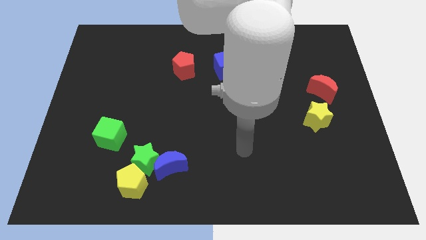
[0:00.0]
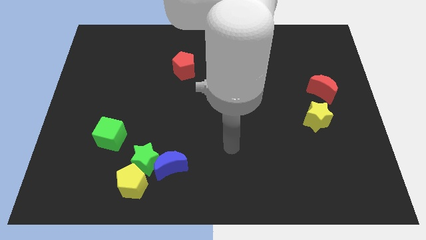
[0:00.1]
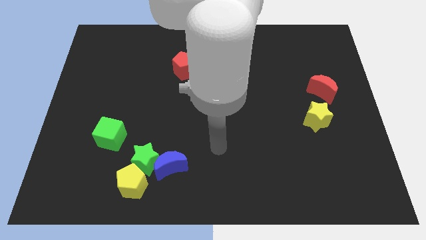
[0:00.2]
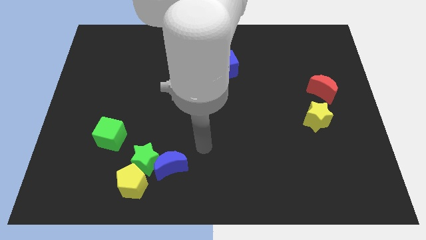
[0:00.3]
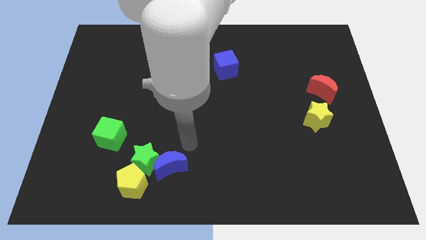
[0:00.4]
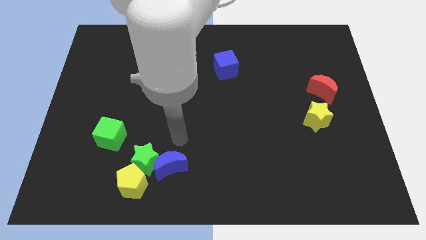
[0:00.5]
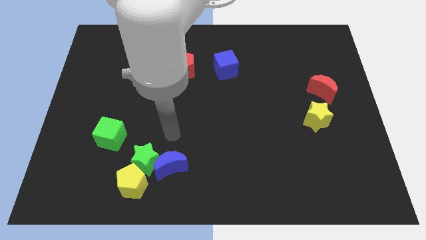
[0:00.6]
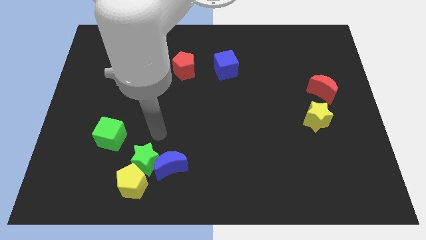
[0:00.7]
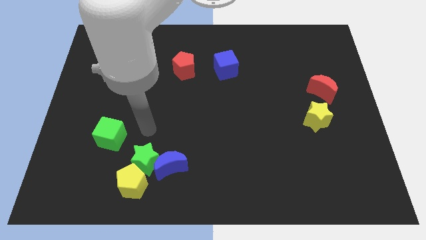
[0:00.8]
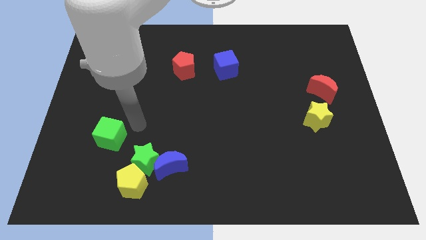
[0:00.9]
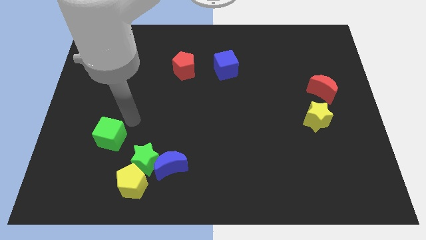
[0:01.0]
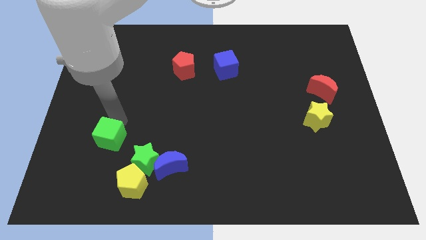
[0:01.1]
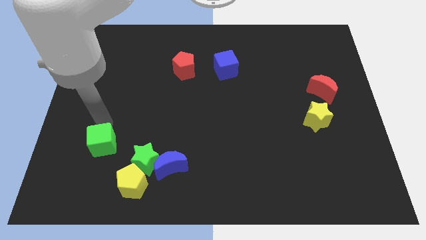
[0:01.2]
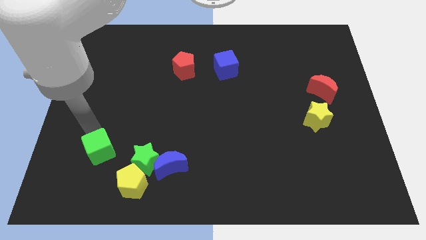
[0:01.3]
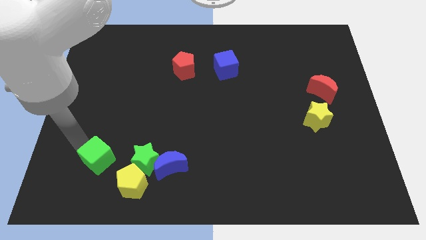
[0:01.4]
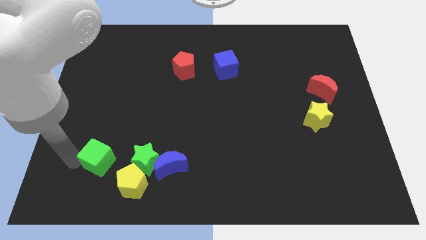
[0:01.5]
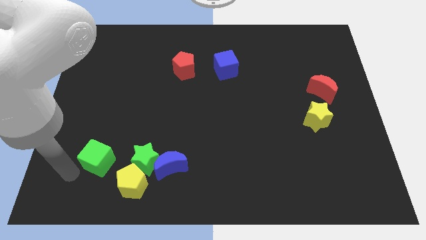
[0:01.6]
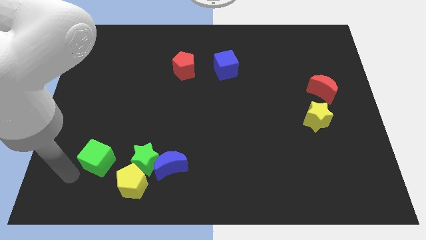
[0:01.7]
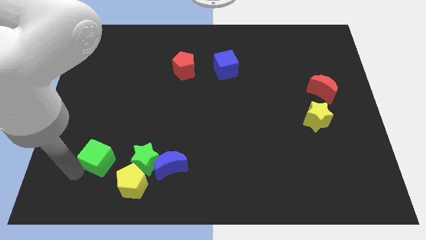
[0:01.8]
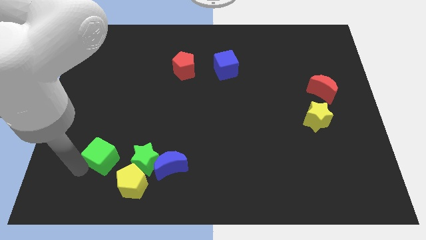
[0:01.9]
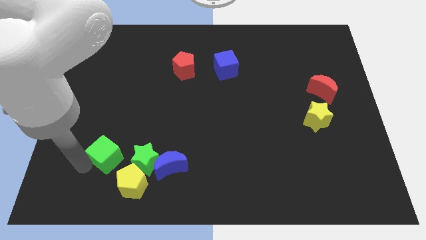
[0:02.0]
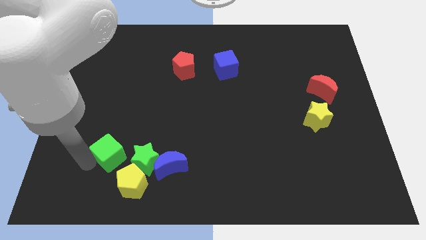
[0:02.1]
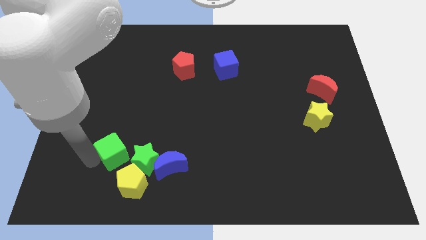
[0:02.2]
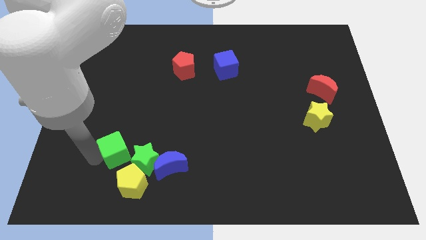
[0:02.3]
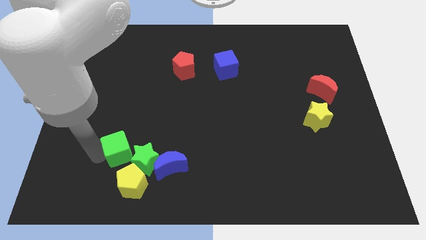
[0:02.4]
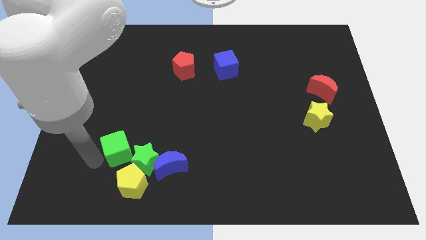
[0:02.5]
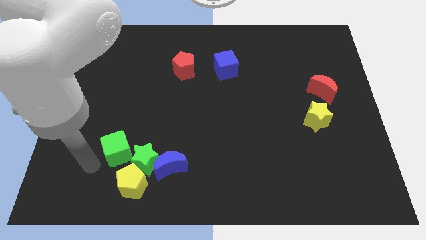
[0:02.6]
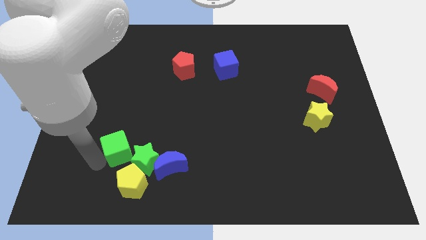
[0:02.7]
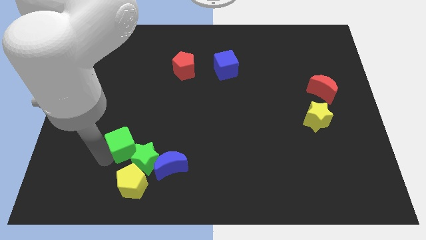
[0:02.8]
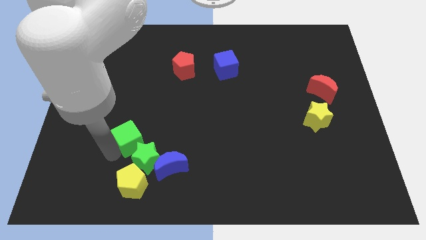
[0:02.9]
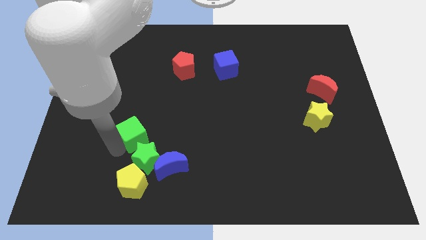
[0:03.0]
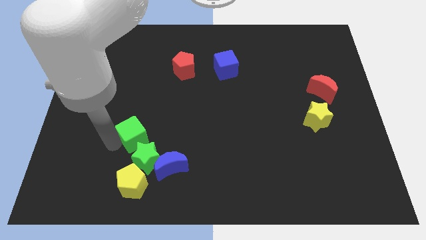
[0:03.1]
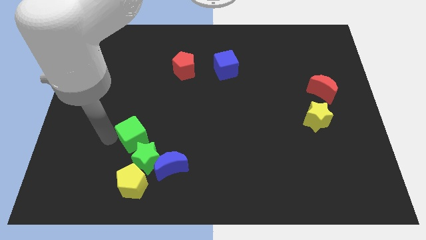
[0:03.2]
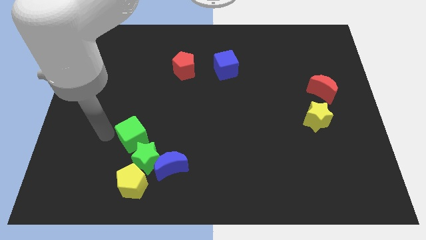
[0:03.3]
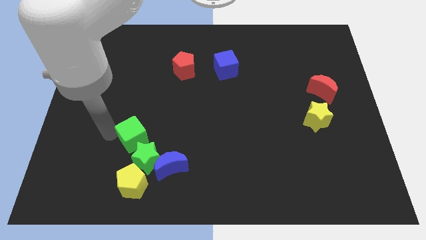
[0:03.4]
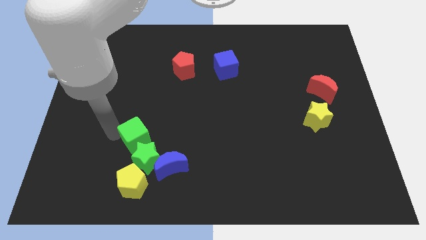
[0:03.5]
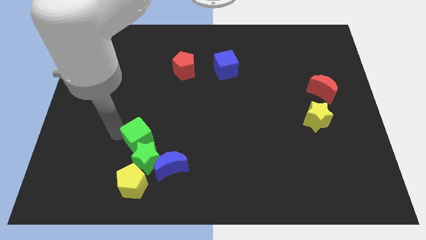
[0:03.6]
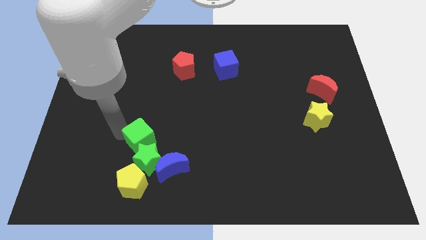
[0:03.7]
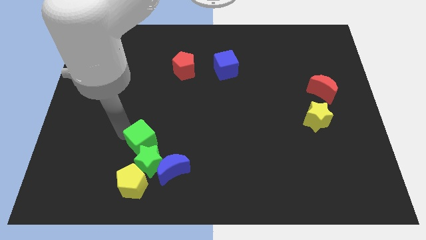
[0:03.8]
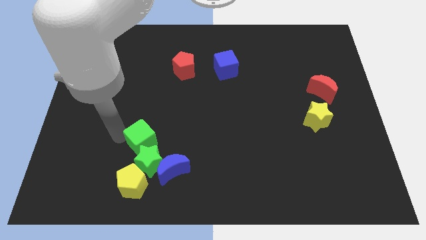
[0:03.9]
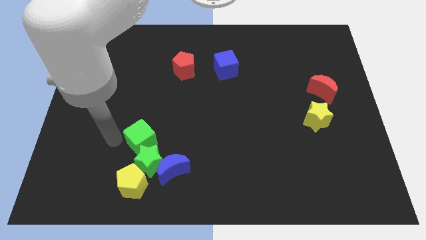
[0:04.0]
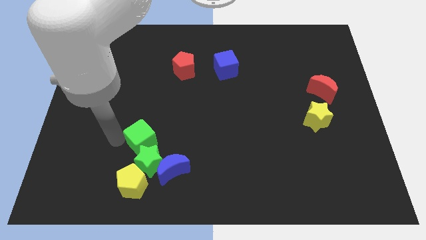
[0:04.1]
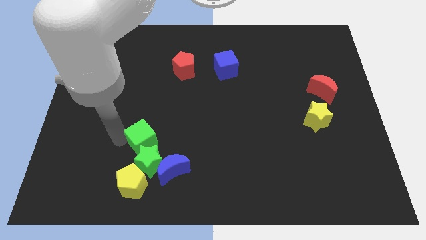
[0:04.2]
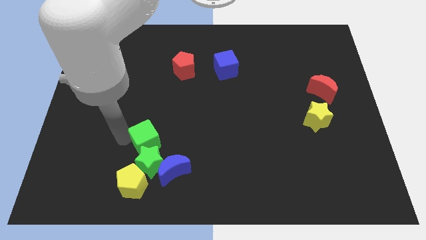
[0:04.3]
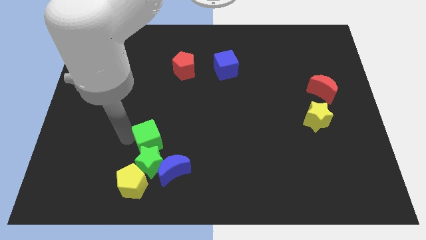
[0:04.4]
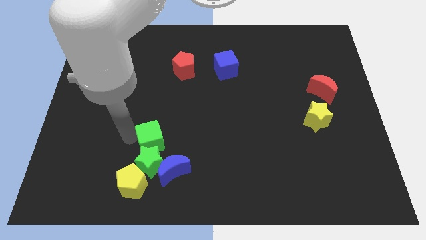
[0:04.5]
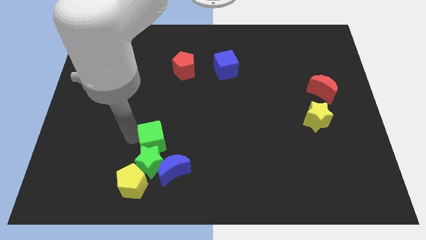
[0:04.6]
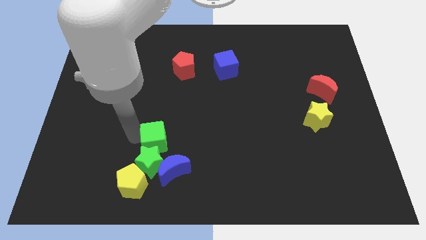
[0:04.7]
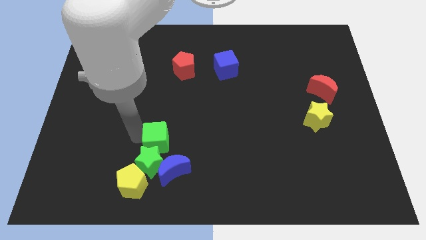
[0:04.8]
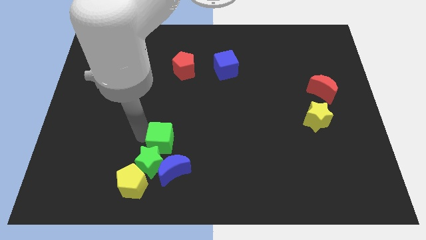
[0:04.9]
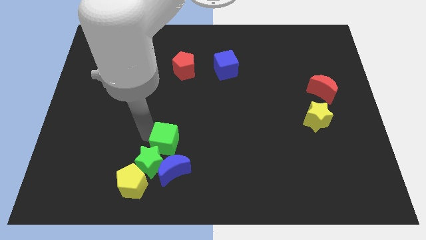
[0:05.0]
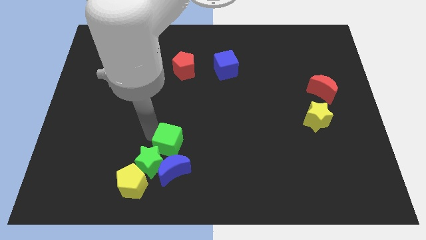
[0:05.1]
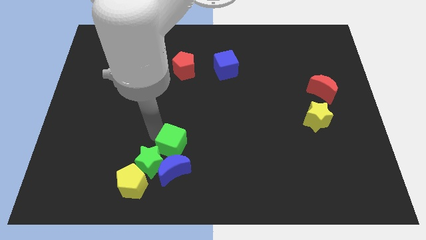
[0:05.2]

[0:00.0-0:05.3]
slide the green cube right of the green star

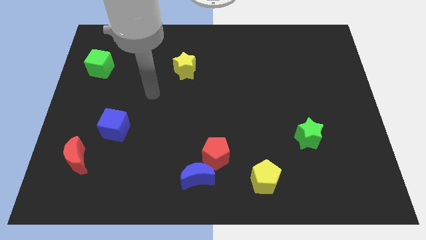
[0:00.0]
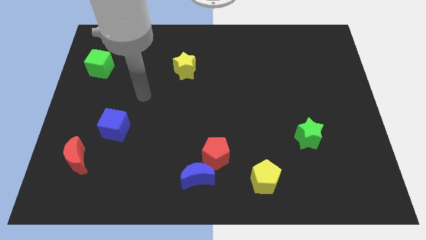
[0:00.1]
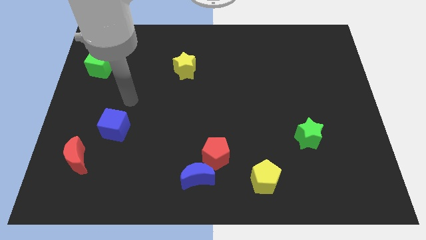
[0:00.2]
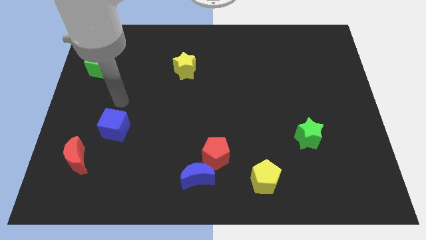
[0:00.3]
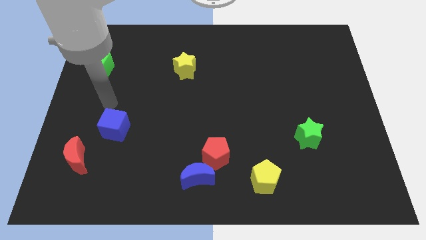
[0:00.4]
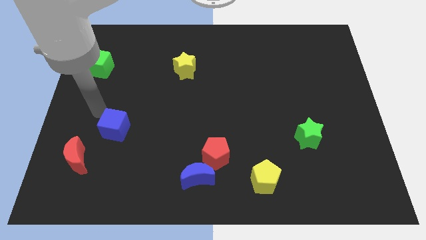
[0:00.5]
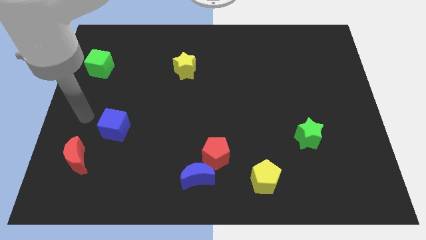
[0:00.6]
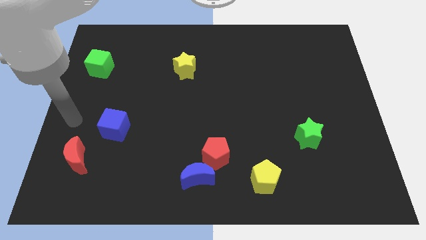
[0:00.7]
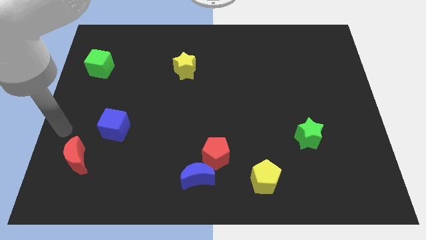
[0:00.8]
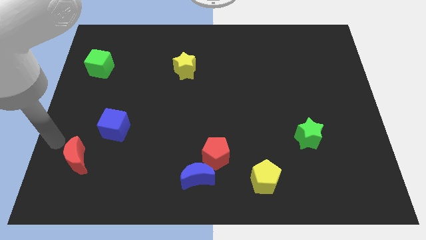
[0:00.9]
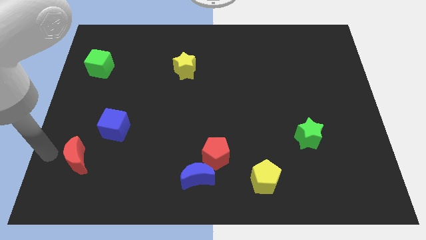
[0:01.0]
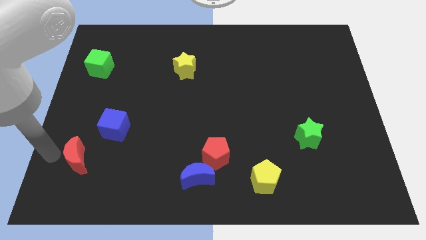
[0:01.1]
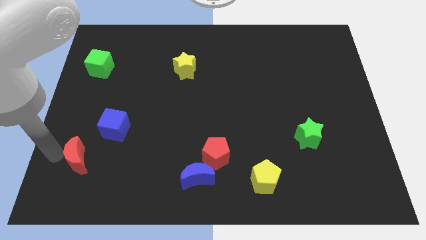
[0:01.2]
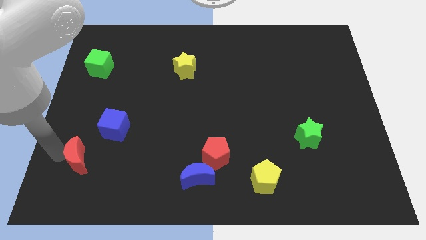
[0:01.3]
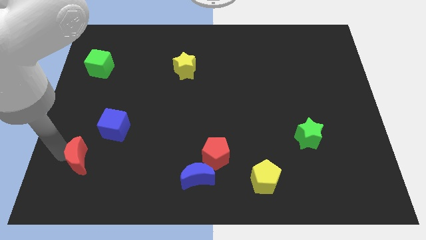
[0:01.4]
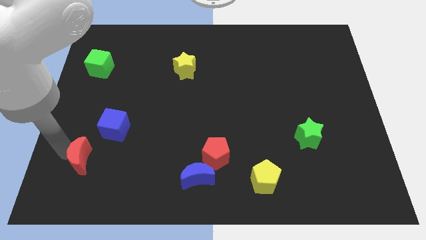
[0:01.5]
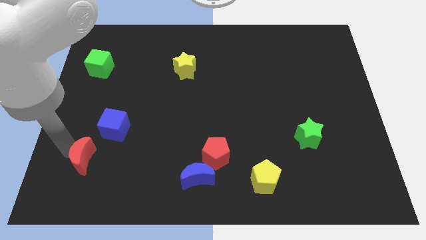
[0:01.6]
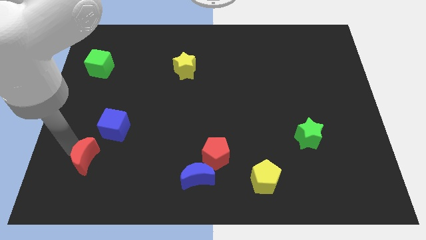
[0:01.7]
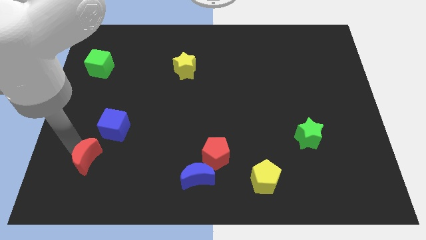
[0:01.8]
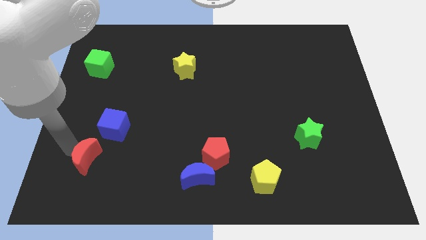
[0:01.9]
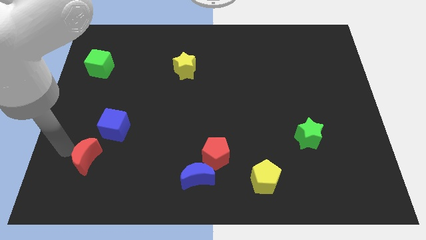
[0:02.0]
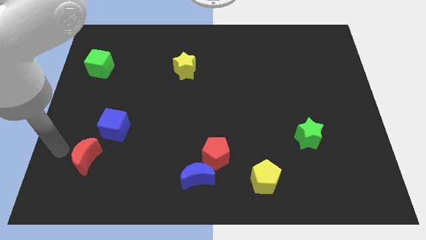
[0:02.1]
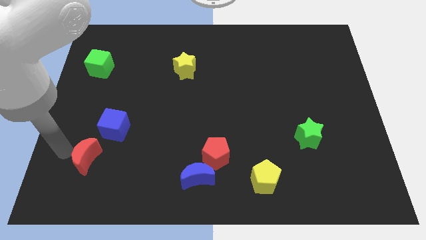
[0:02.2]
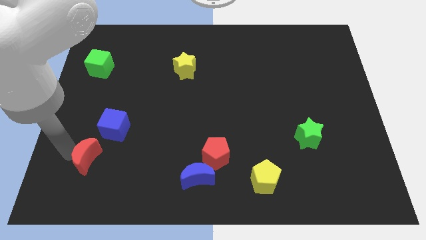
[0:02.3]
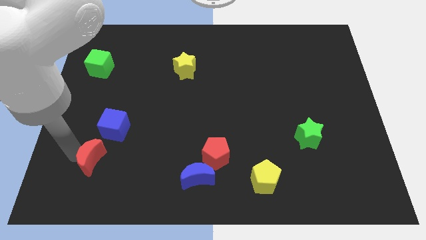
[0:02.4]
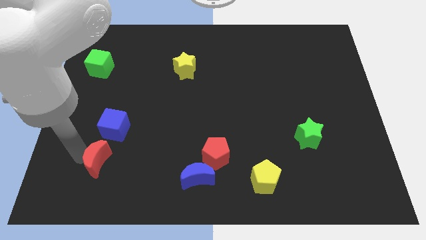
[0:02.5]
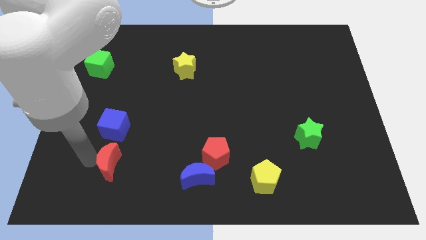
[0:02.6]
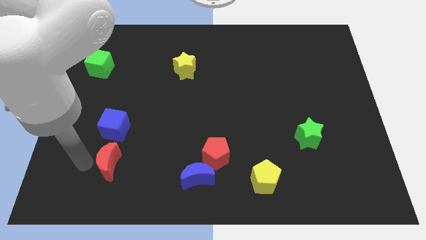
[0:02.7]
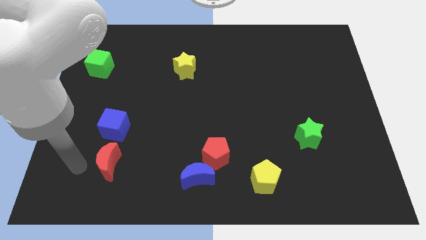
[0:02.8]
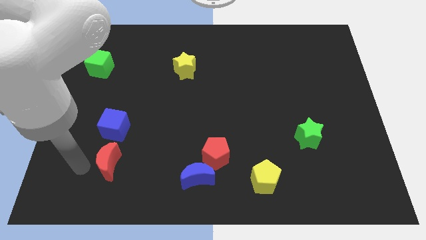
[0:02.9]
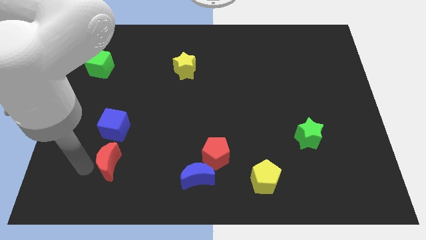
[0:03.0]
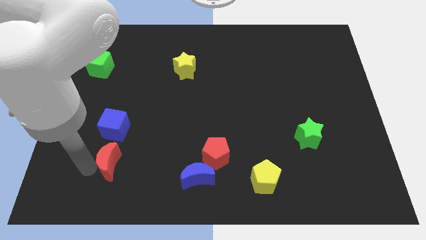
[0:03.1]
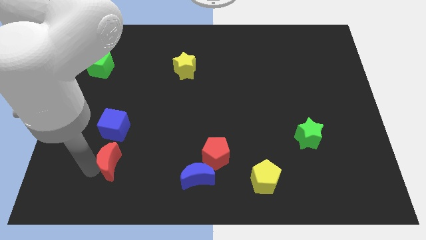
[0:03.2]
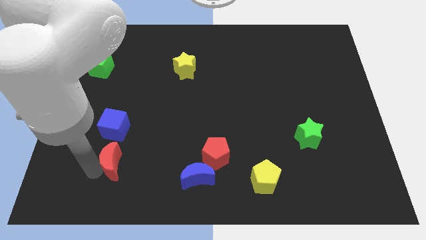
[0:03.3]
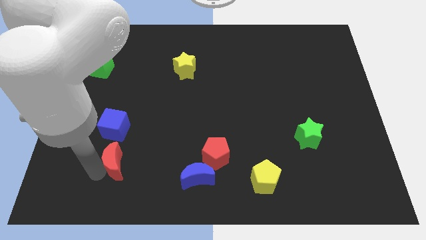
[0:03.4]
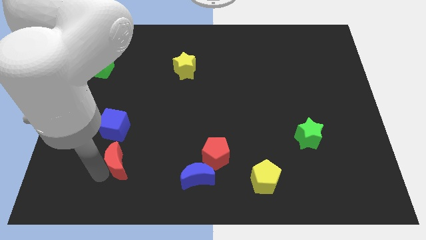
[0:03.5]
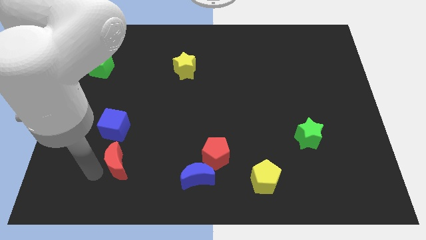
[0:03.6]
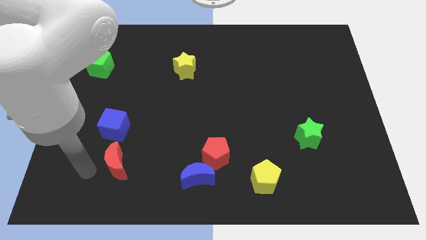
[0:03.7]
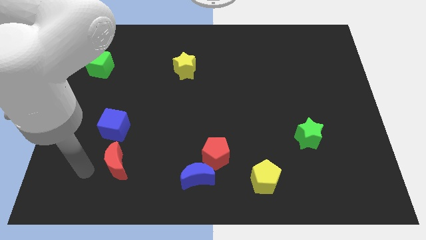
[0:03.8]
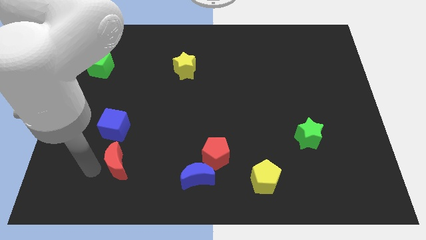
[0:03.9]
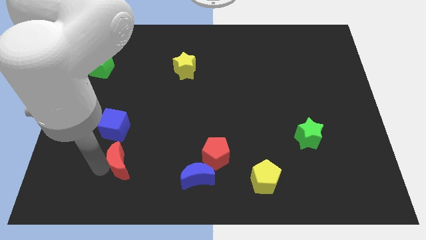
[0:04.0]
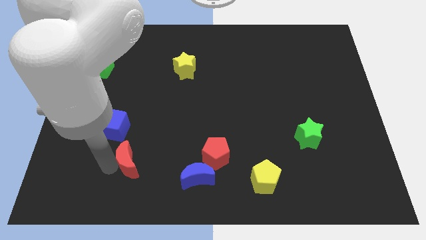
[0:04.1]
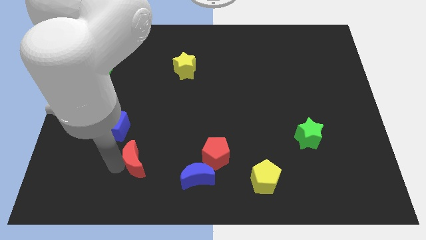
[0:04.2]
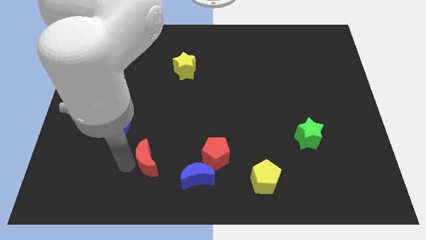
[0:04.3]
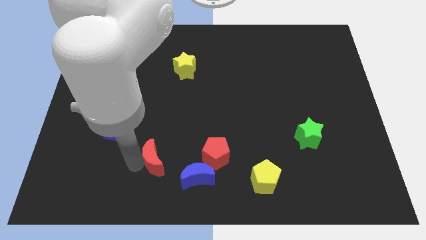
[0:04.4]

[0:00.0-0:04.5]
put the red moon diagonally up and to the left of the blue moon
